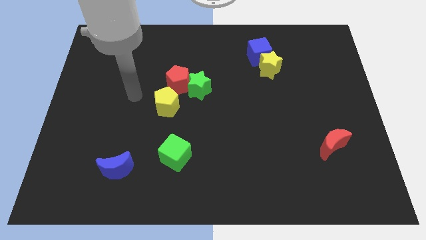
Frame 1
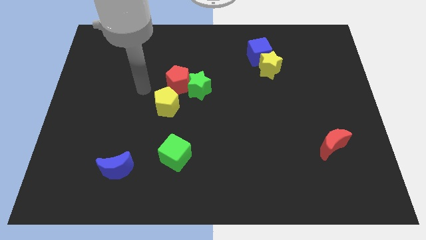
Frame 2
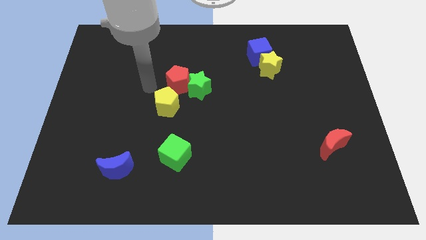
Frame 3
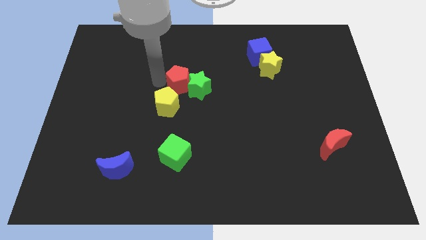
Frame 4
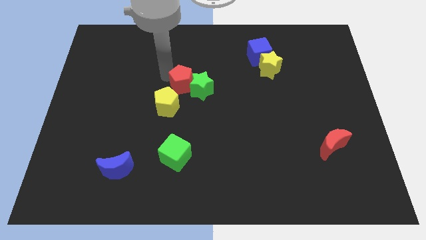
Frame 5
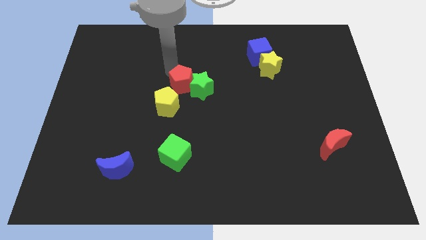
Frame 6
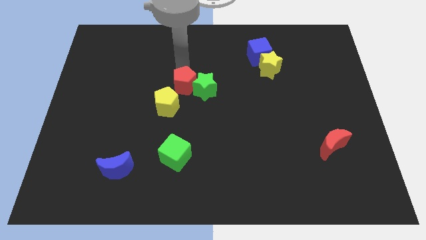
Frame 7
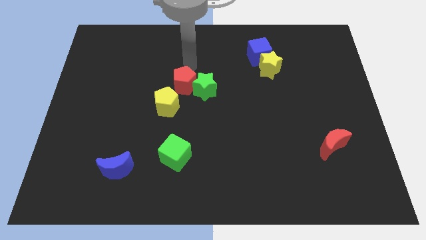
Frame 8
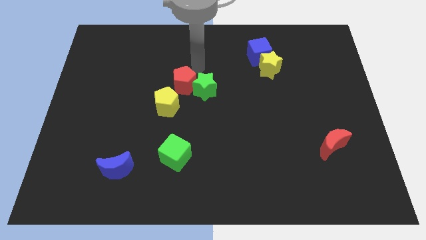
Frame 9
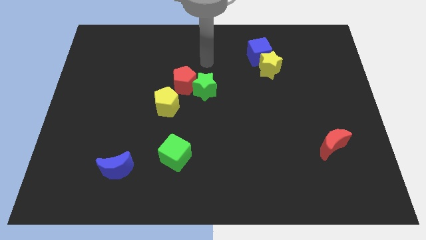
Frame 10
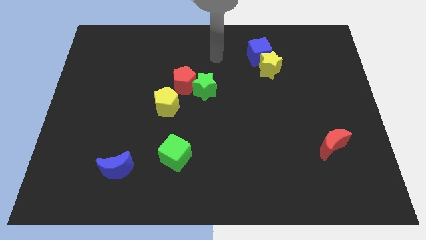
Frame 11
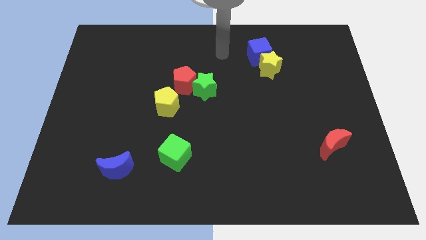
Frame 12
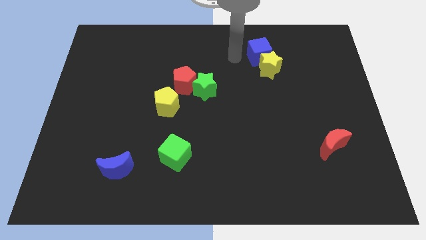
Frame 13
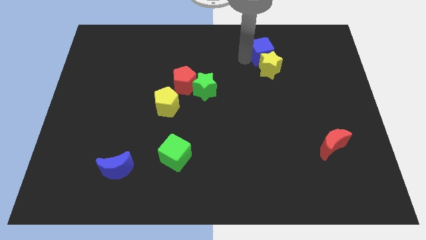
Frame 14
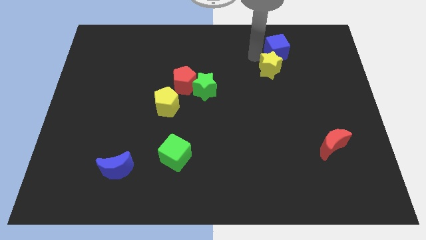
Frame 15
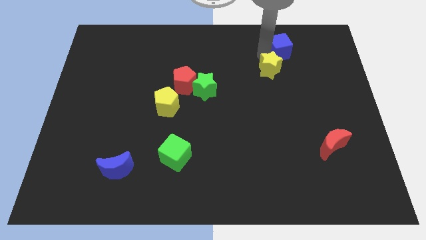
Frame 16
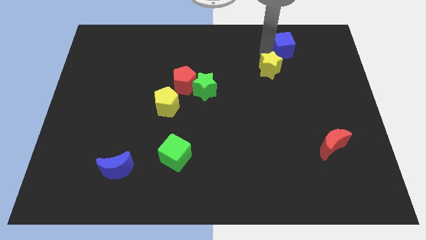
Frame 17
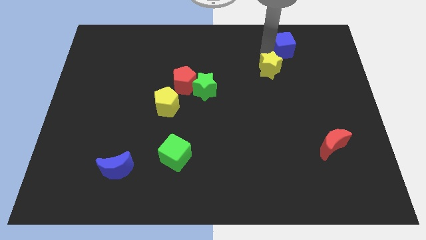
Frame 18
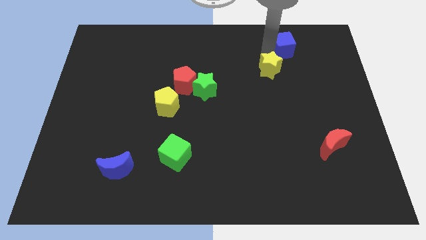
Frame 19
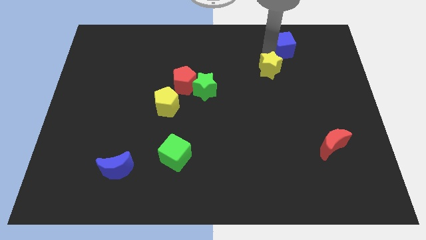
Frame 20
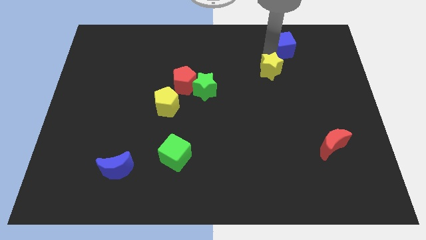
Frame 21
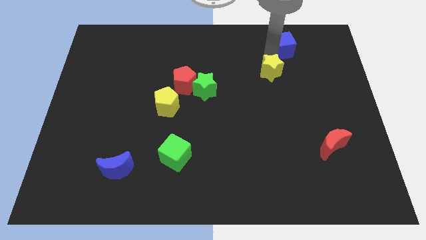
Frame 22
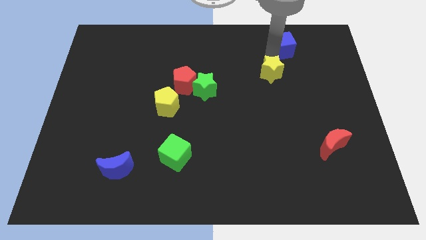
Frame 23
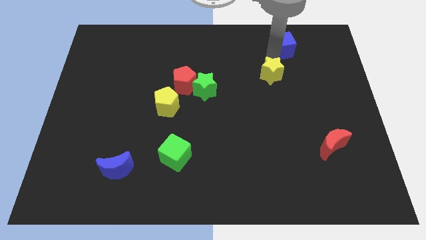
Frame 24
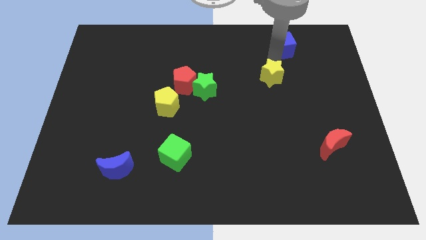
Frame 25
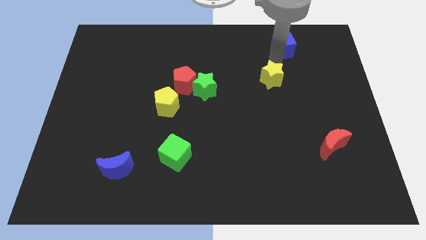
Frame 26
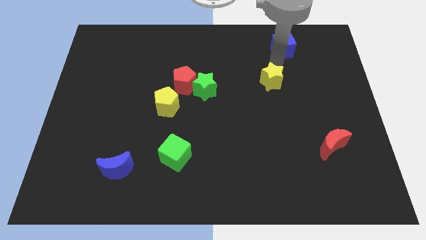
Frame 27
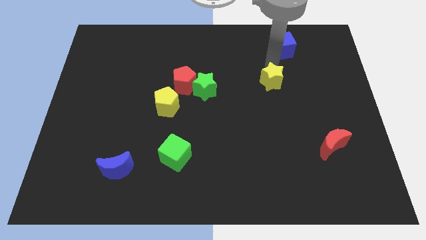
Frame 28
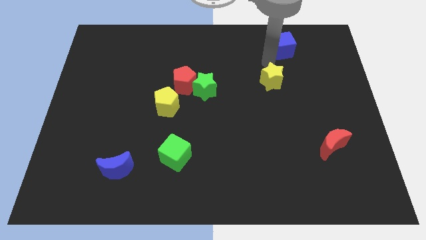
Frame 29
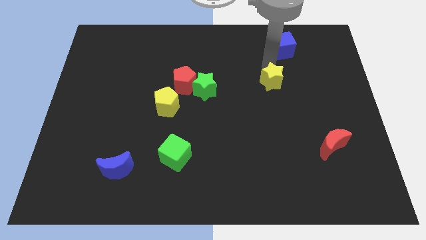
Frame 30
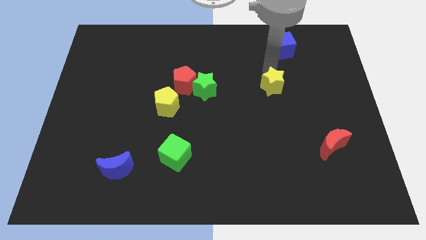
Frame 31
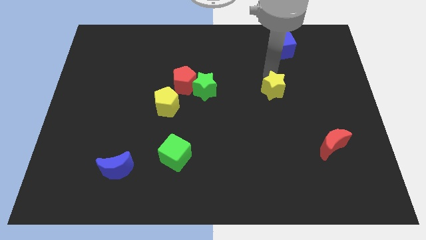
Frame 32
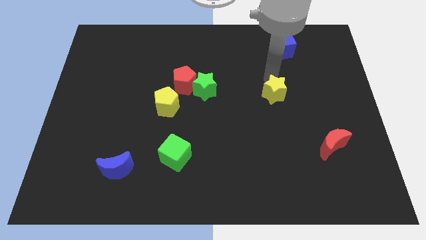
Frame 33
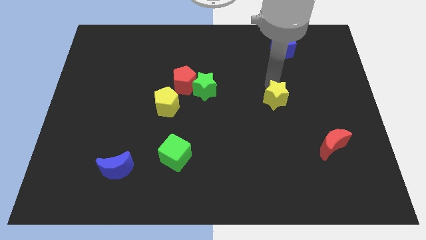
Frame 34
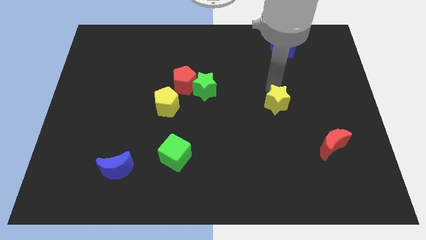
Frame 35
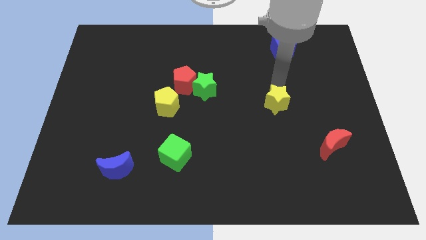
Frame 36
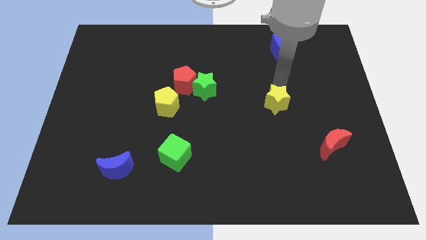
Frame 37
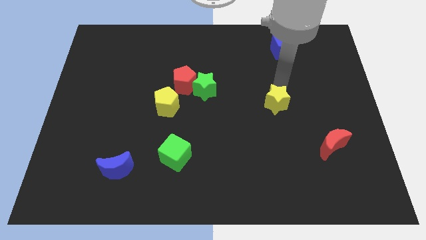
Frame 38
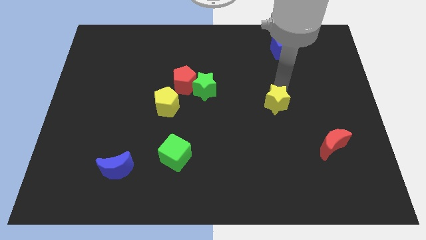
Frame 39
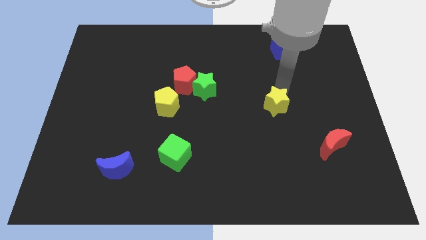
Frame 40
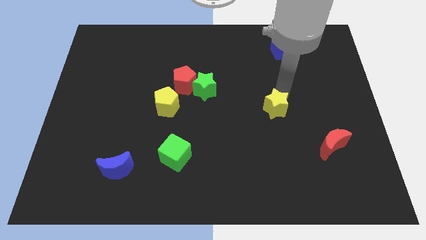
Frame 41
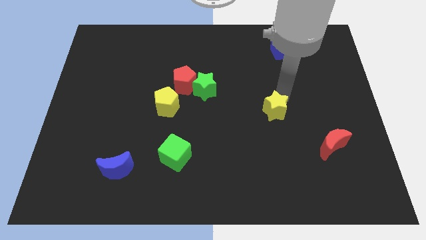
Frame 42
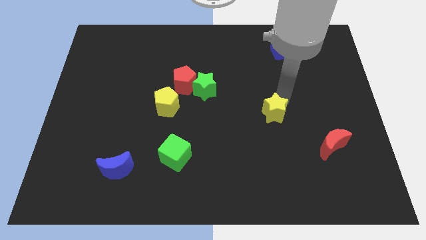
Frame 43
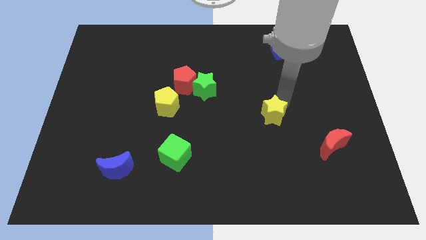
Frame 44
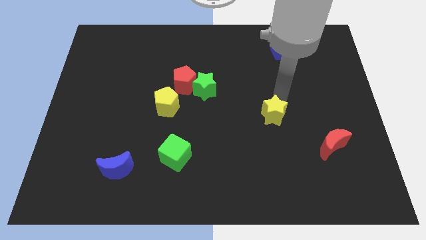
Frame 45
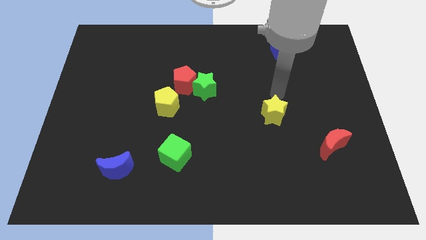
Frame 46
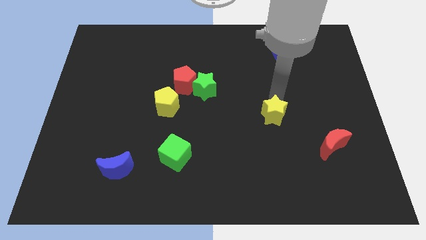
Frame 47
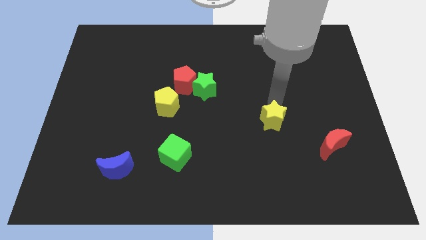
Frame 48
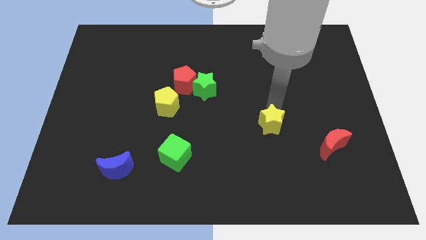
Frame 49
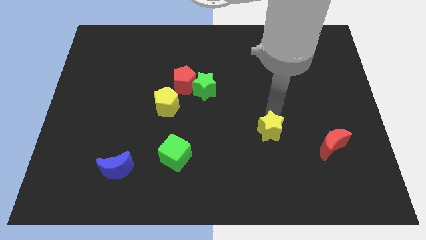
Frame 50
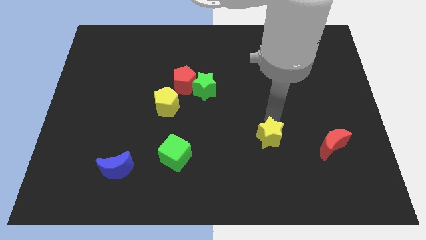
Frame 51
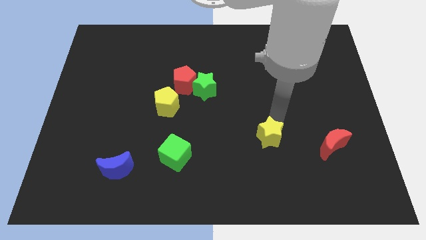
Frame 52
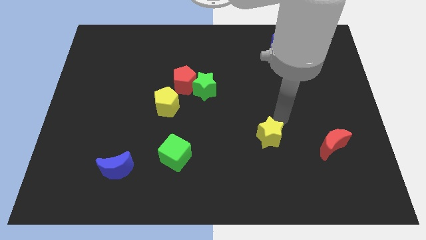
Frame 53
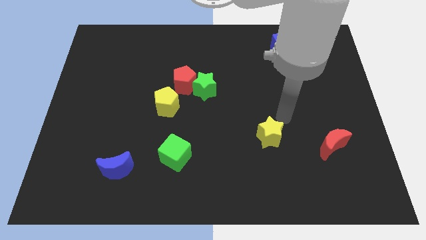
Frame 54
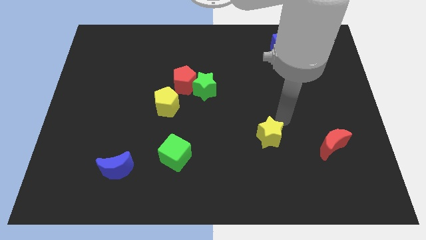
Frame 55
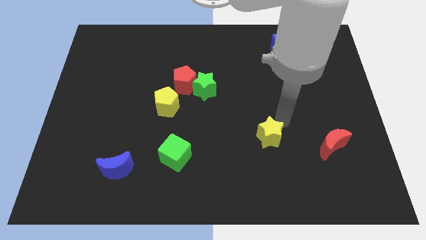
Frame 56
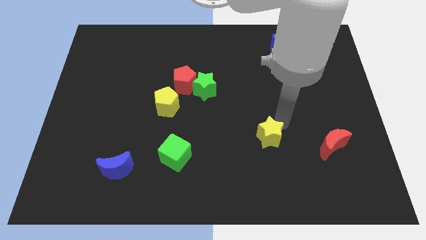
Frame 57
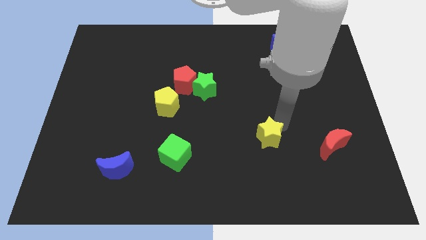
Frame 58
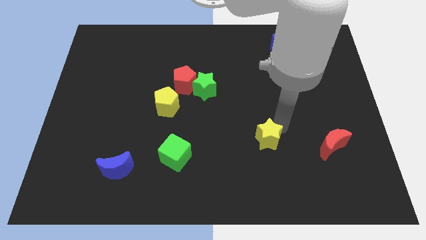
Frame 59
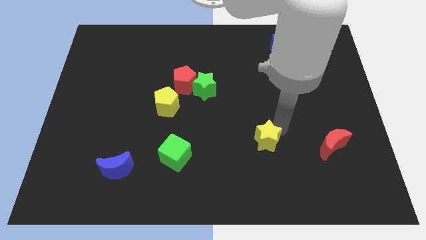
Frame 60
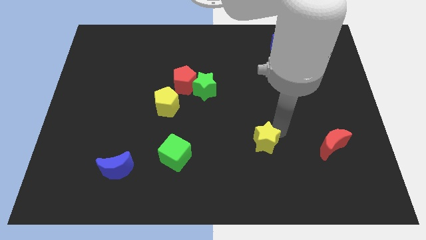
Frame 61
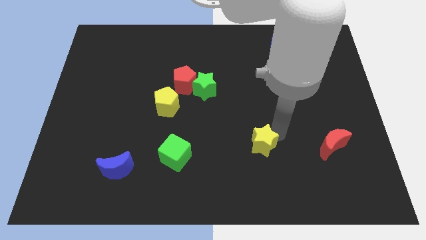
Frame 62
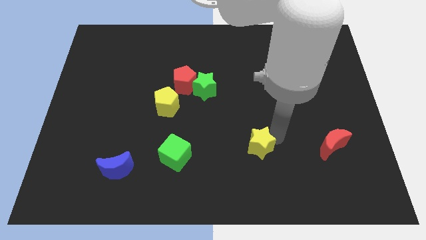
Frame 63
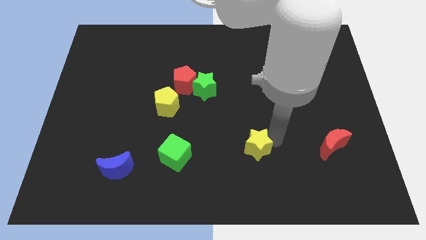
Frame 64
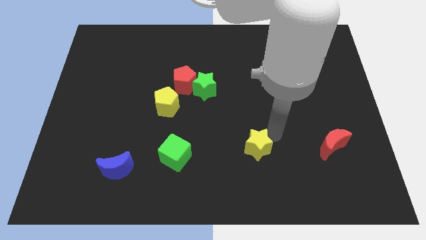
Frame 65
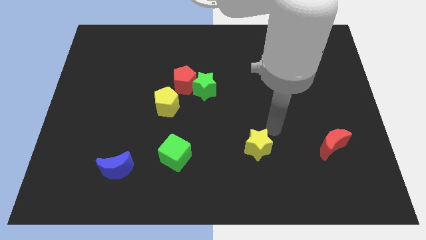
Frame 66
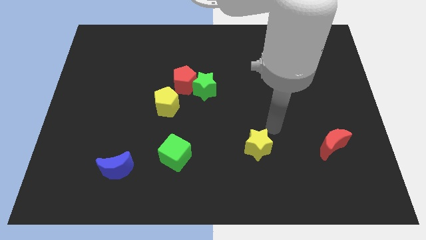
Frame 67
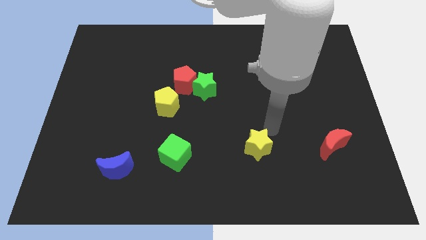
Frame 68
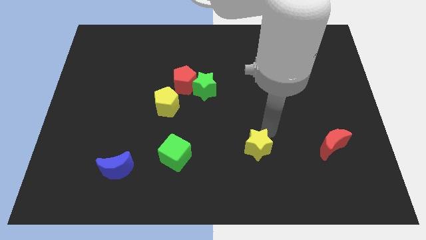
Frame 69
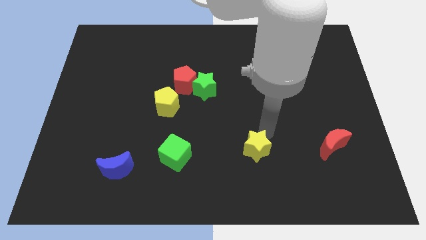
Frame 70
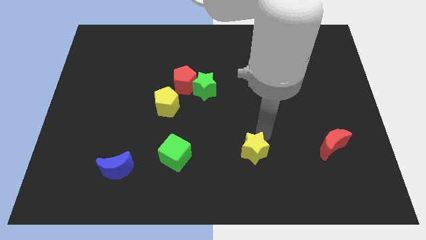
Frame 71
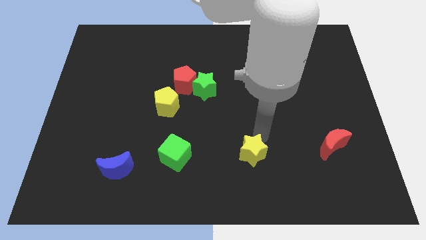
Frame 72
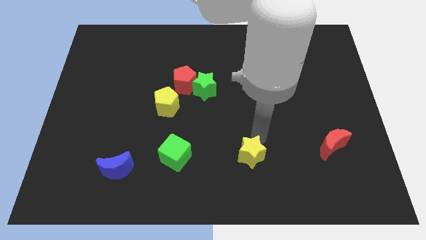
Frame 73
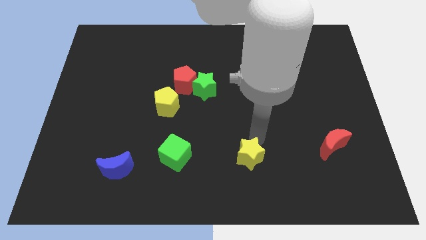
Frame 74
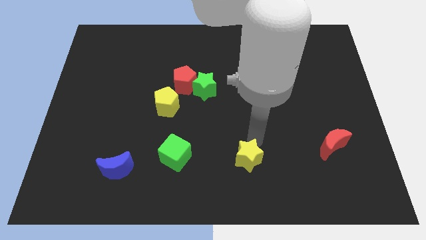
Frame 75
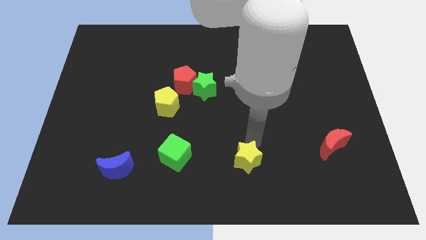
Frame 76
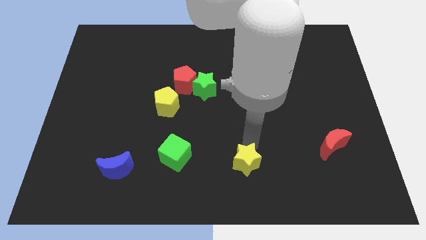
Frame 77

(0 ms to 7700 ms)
put the yellow star to the bottom
